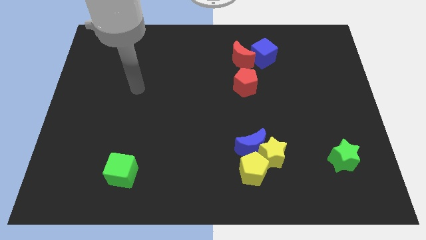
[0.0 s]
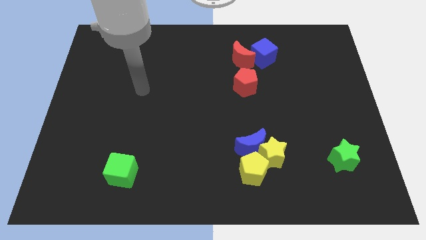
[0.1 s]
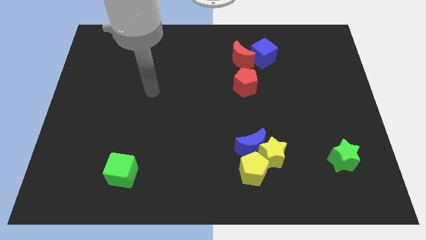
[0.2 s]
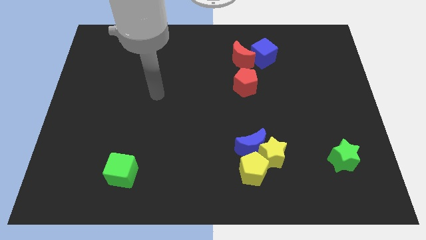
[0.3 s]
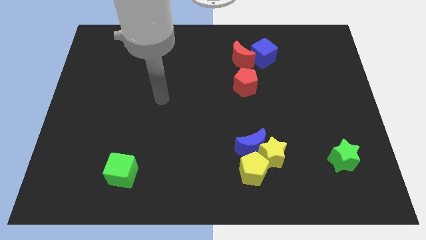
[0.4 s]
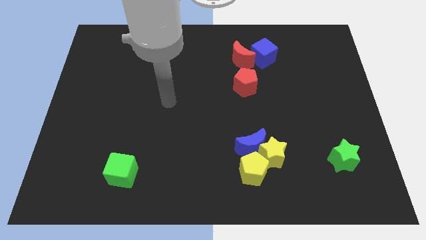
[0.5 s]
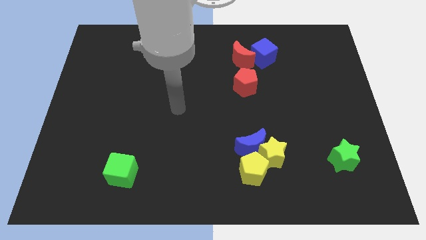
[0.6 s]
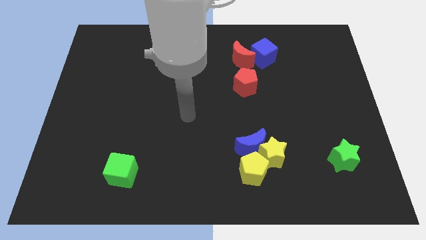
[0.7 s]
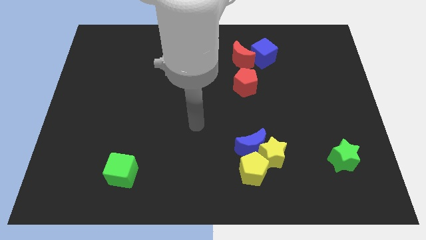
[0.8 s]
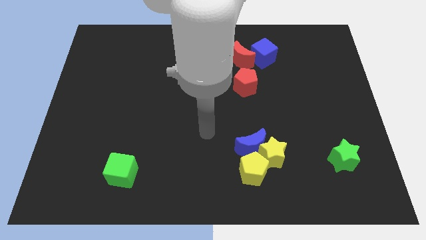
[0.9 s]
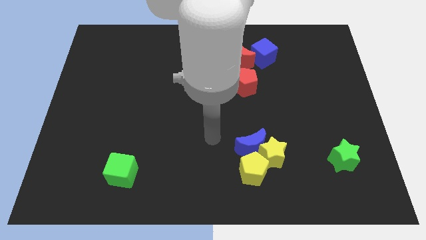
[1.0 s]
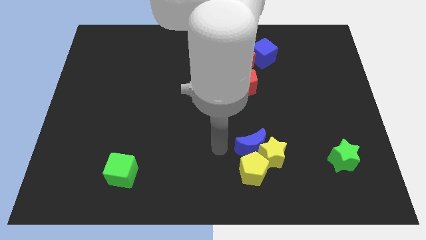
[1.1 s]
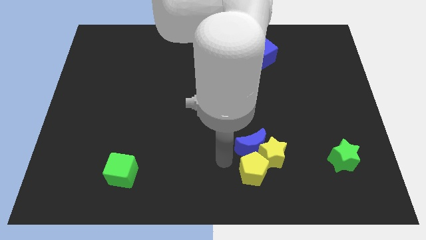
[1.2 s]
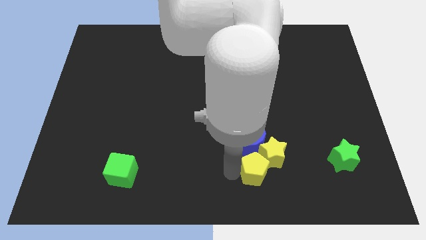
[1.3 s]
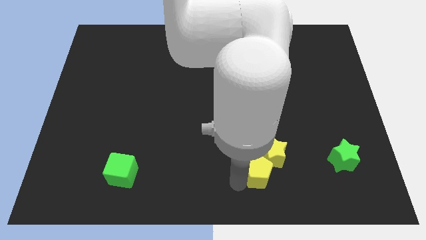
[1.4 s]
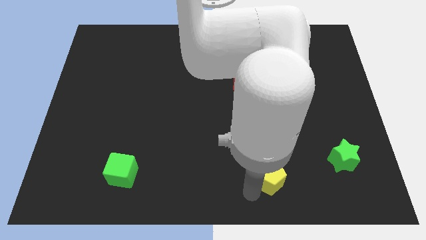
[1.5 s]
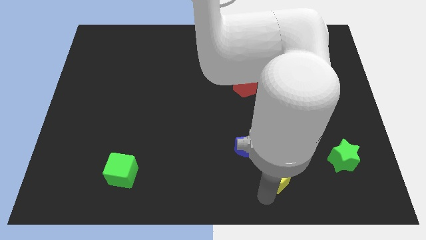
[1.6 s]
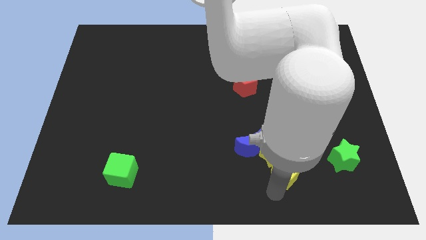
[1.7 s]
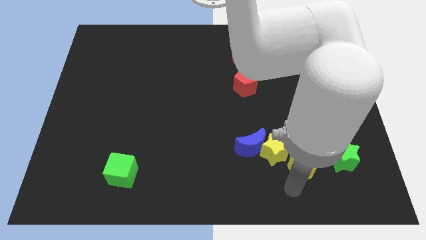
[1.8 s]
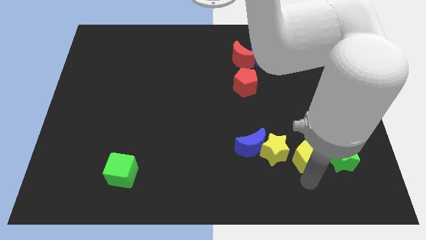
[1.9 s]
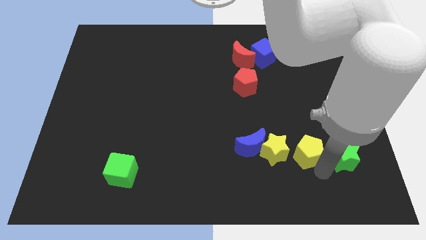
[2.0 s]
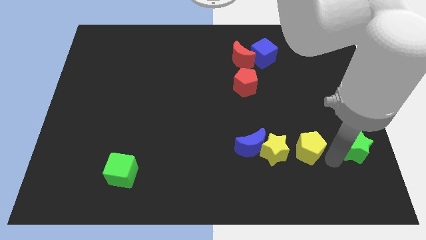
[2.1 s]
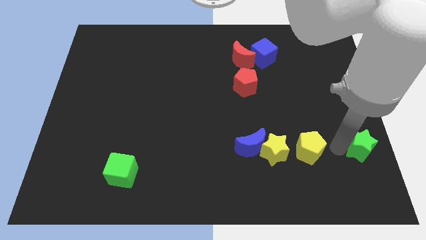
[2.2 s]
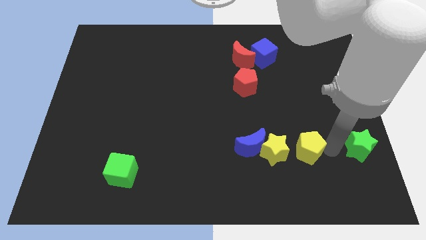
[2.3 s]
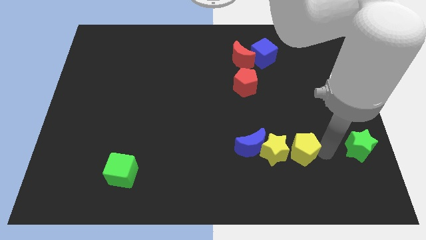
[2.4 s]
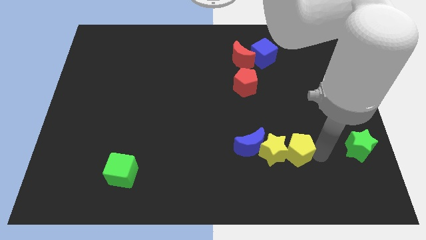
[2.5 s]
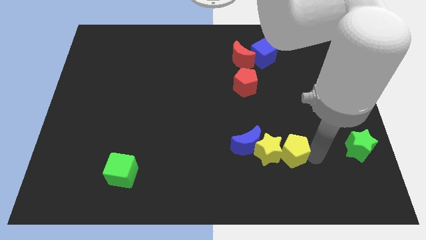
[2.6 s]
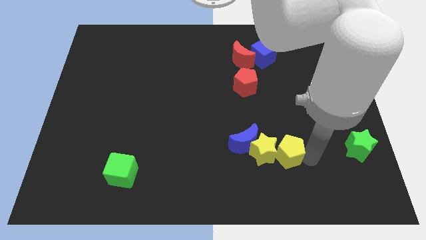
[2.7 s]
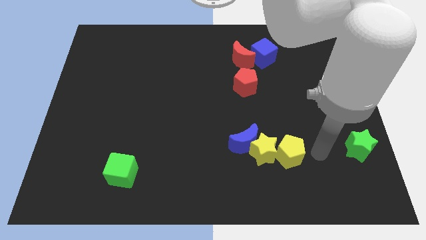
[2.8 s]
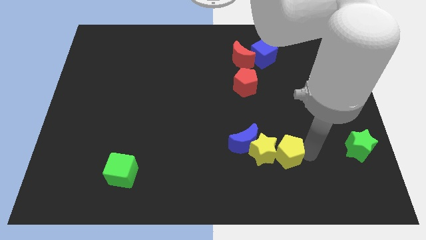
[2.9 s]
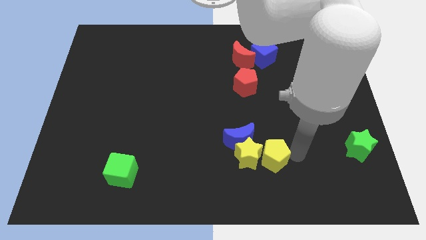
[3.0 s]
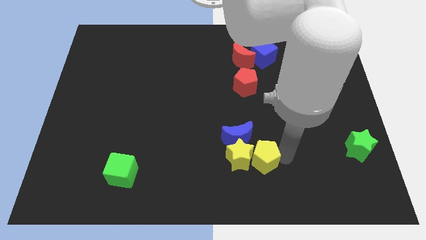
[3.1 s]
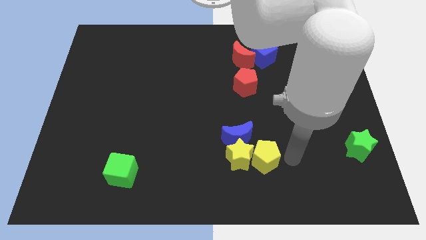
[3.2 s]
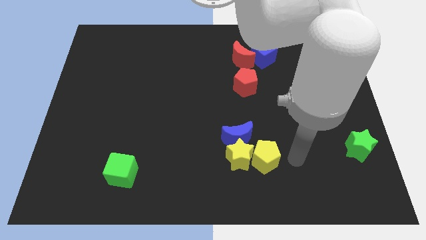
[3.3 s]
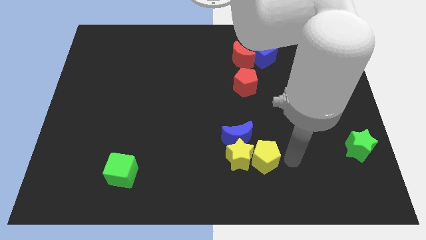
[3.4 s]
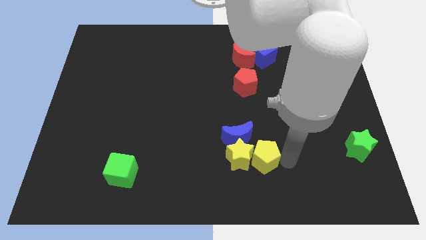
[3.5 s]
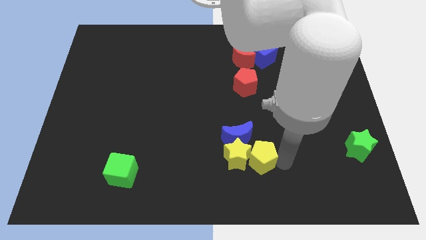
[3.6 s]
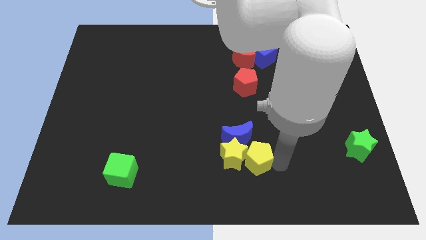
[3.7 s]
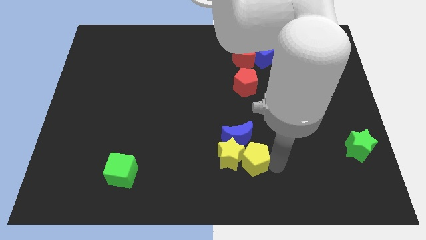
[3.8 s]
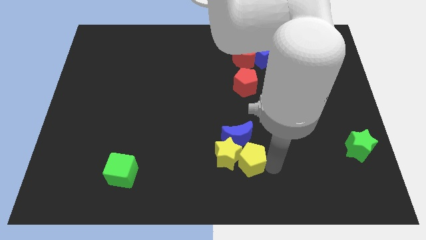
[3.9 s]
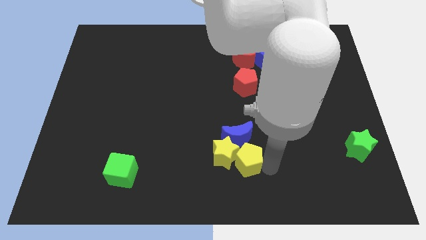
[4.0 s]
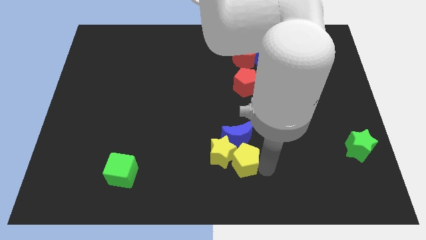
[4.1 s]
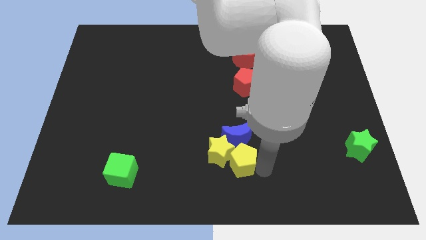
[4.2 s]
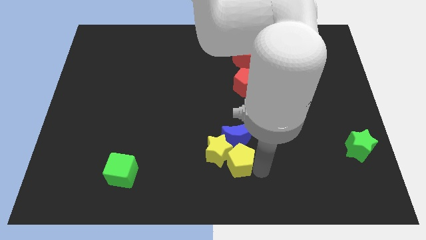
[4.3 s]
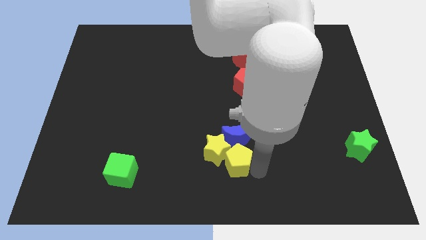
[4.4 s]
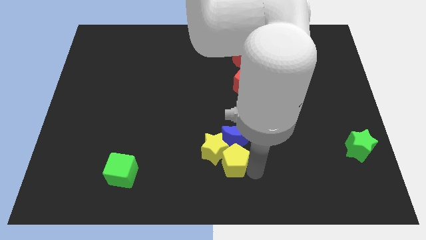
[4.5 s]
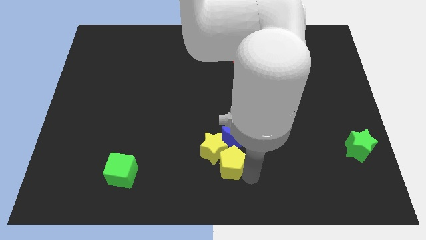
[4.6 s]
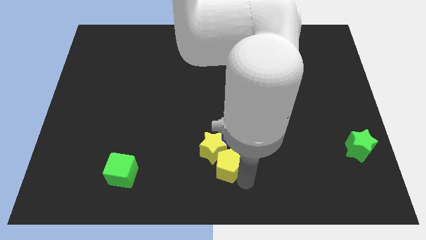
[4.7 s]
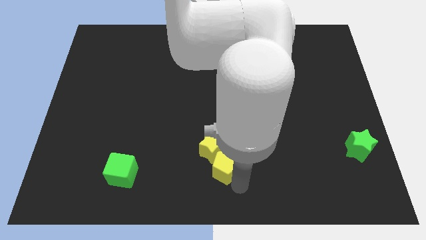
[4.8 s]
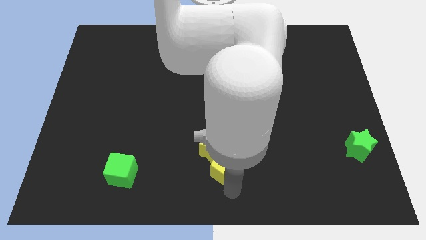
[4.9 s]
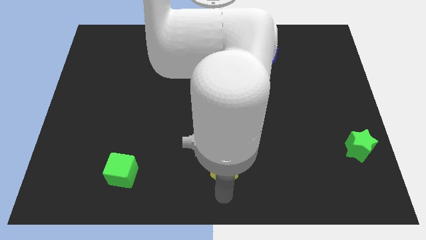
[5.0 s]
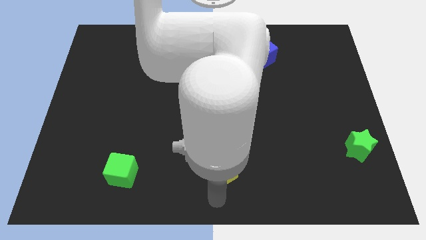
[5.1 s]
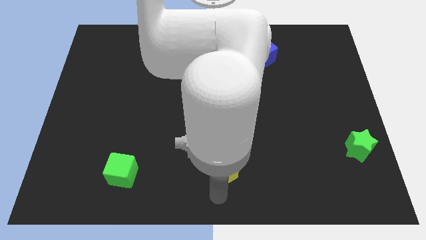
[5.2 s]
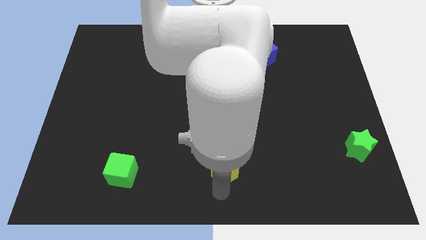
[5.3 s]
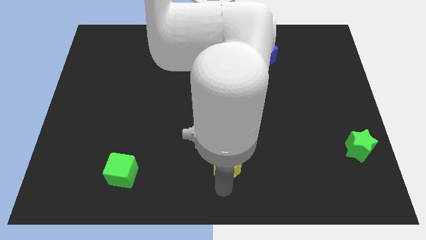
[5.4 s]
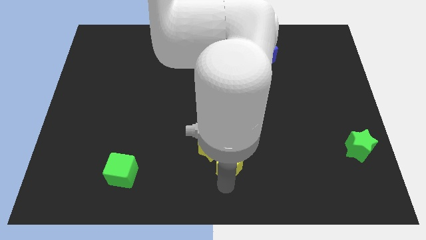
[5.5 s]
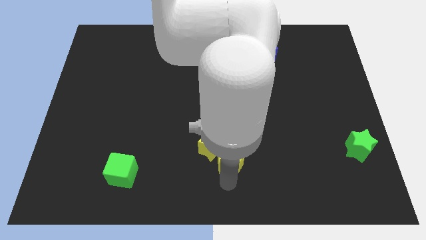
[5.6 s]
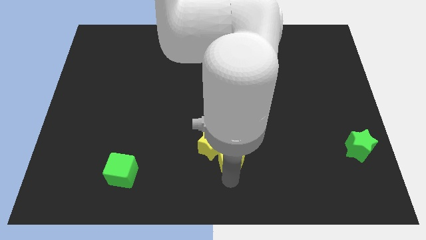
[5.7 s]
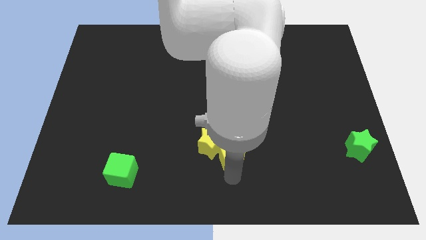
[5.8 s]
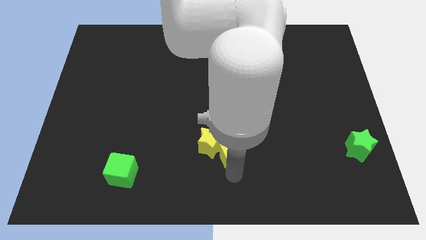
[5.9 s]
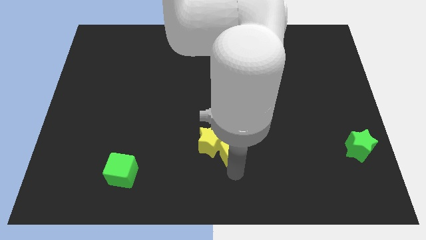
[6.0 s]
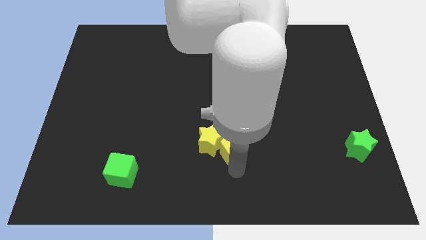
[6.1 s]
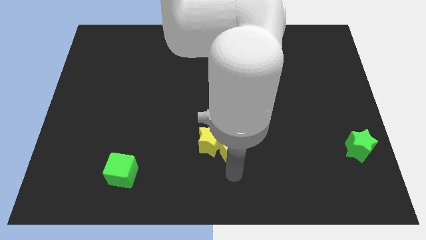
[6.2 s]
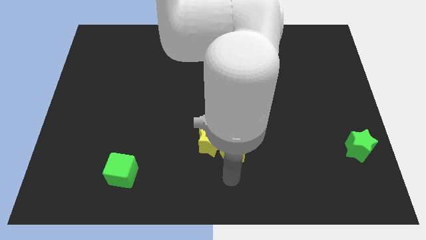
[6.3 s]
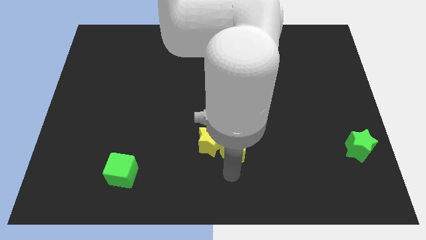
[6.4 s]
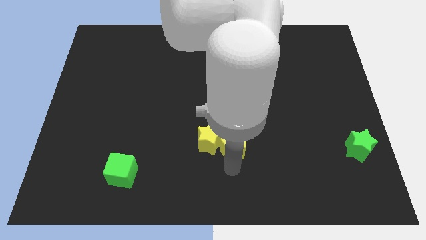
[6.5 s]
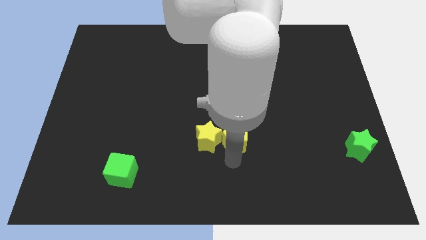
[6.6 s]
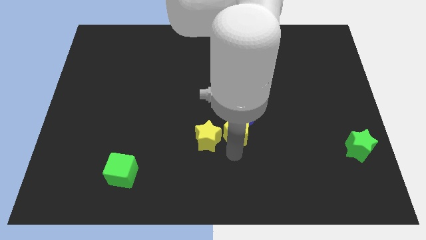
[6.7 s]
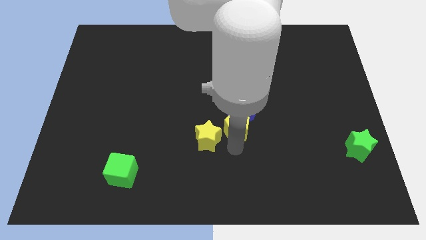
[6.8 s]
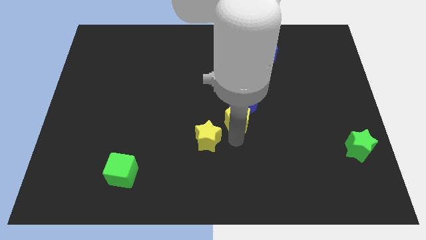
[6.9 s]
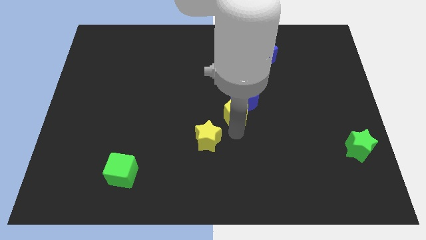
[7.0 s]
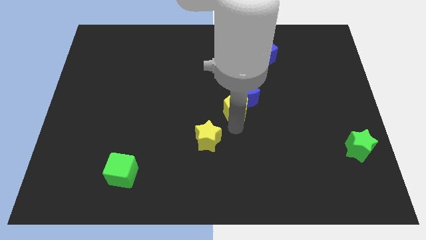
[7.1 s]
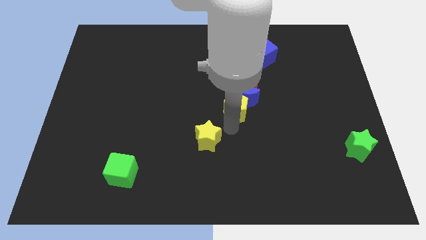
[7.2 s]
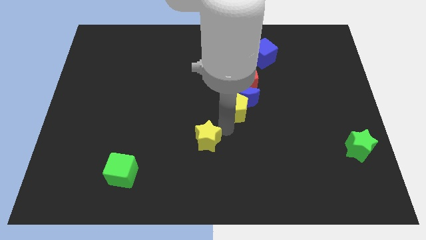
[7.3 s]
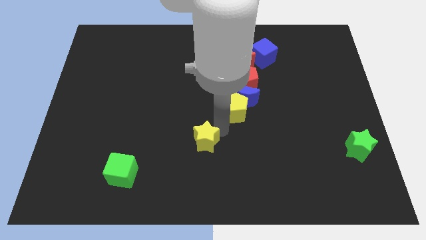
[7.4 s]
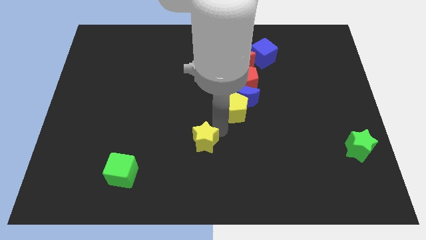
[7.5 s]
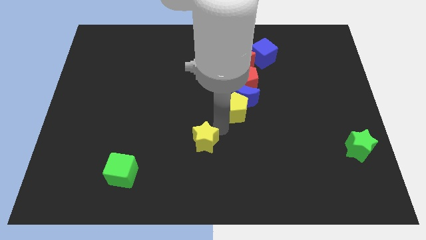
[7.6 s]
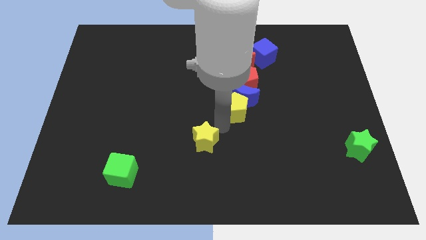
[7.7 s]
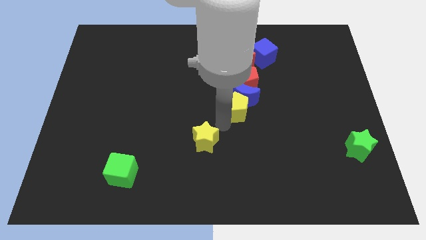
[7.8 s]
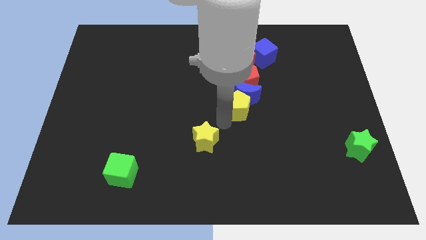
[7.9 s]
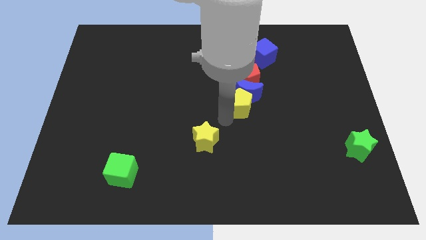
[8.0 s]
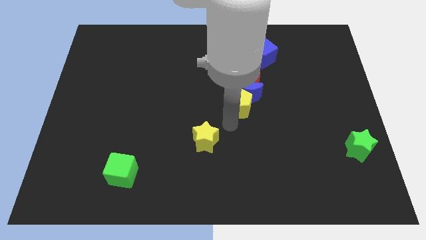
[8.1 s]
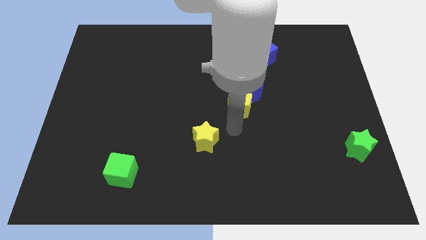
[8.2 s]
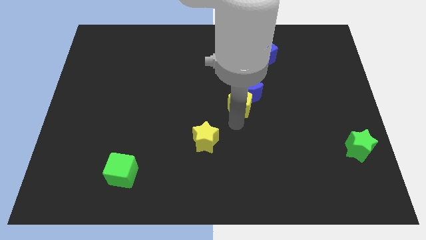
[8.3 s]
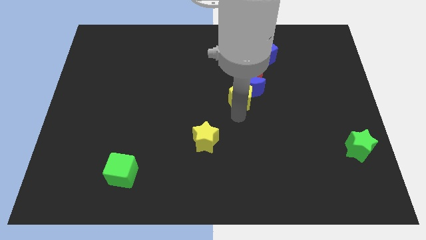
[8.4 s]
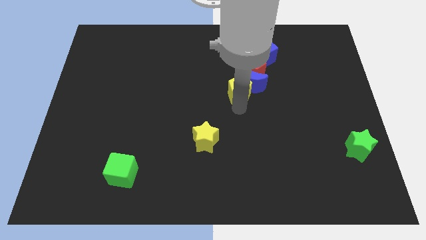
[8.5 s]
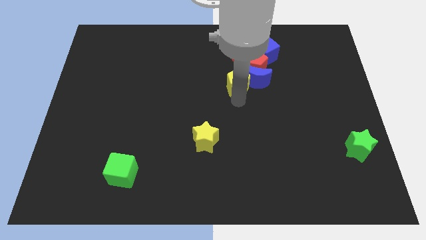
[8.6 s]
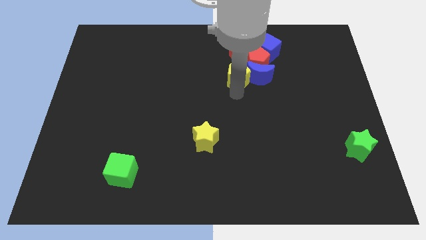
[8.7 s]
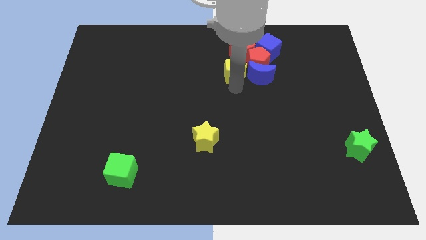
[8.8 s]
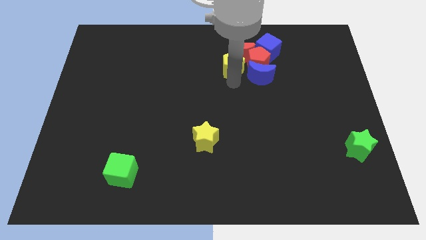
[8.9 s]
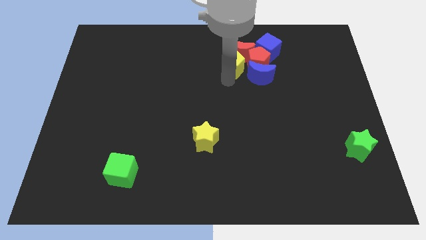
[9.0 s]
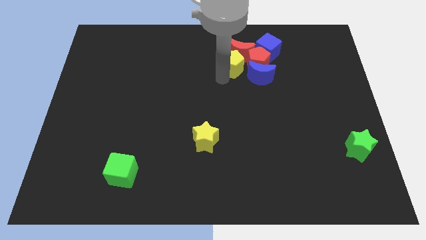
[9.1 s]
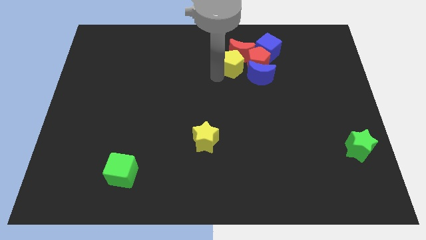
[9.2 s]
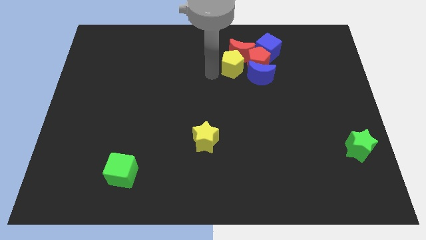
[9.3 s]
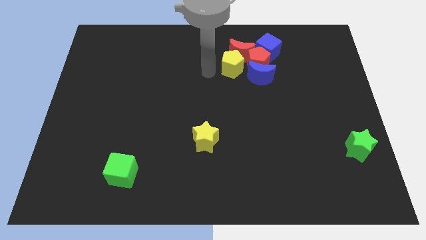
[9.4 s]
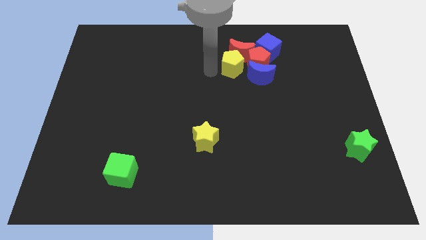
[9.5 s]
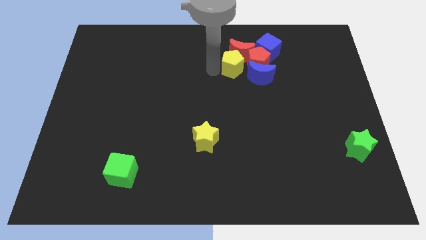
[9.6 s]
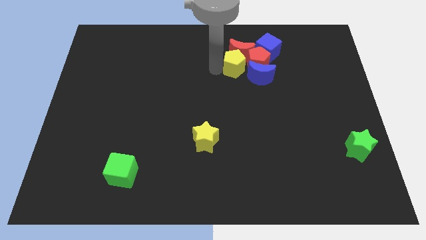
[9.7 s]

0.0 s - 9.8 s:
slide the yellow pentagon to the red pentagon
